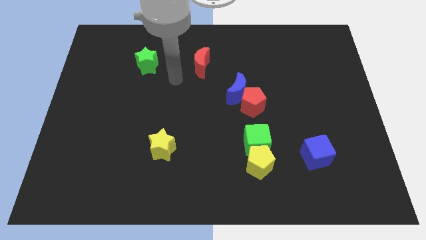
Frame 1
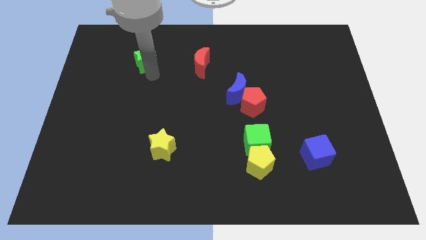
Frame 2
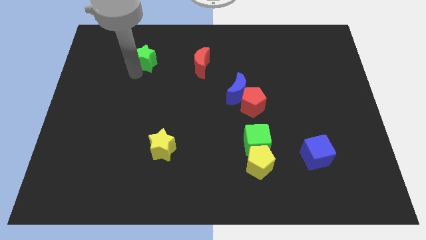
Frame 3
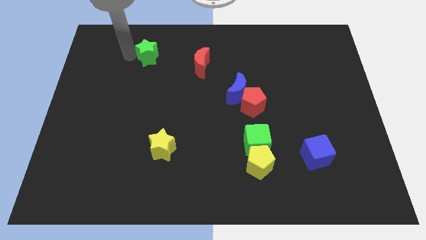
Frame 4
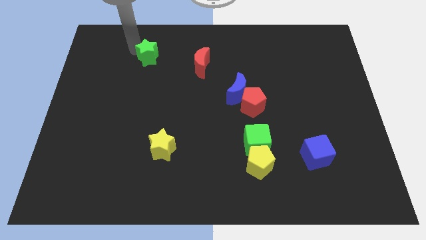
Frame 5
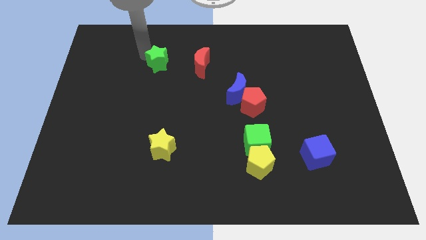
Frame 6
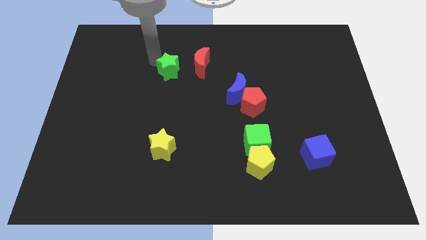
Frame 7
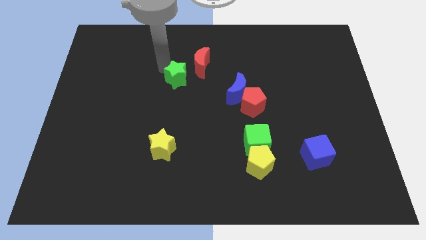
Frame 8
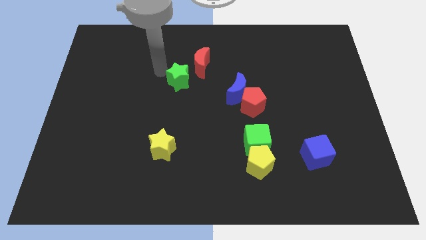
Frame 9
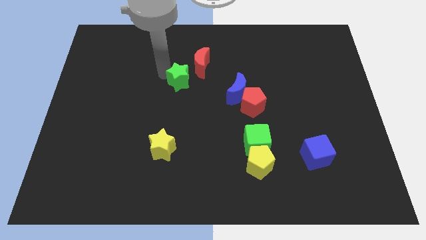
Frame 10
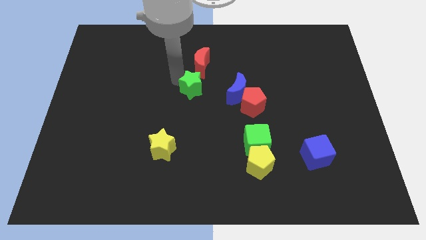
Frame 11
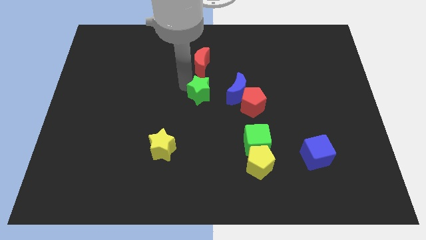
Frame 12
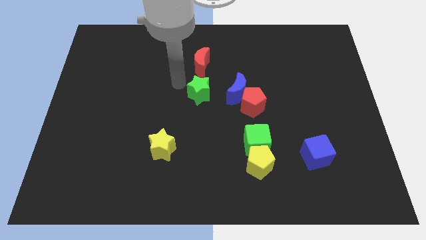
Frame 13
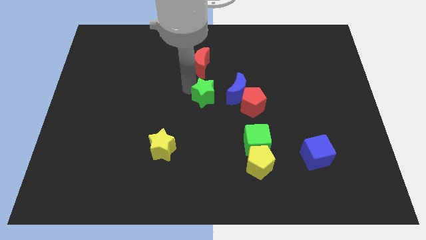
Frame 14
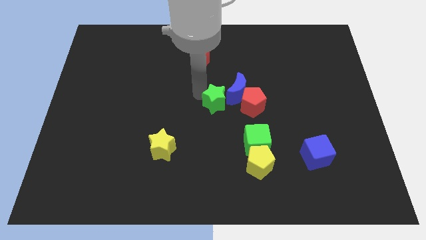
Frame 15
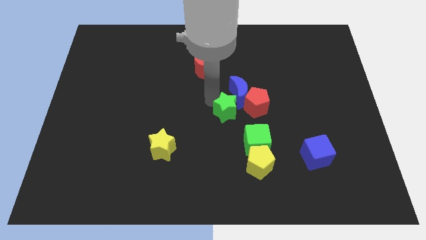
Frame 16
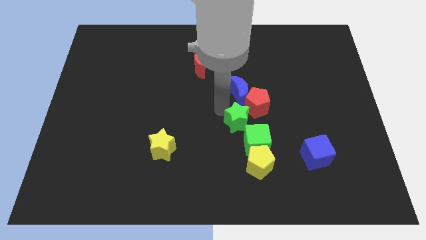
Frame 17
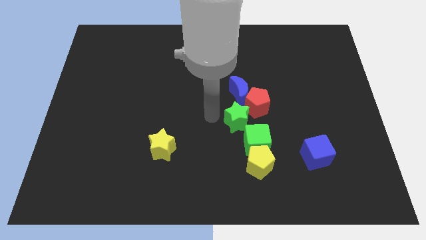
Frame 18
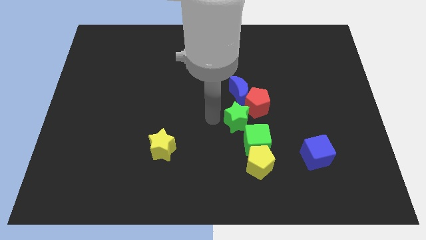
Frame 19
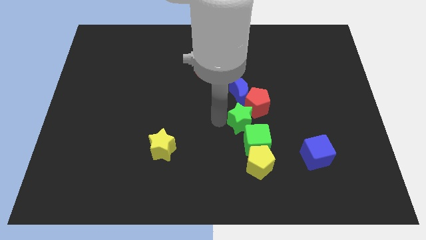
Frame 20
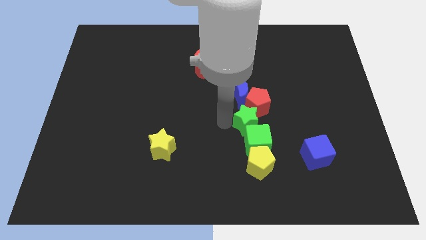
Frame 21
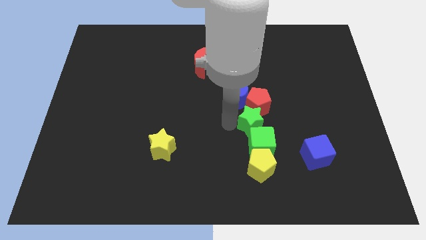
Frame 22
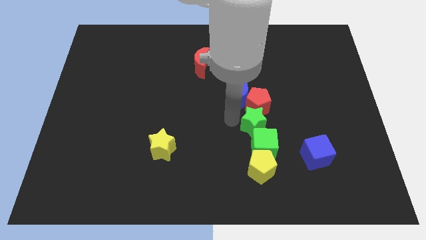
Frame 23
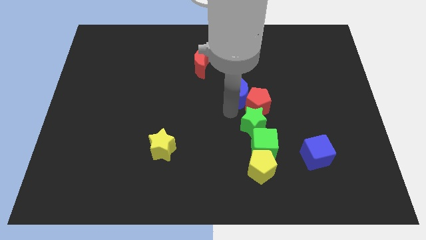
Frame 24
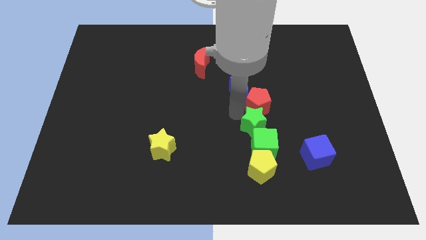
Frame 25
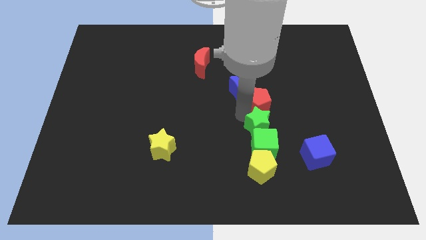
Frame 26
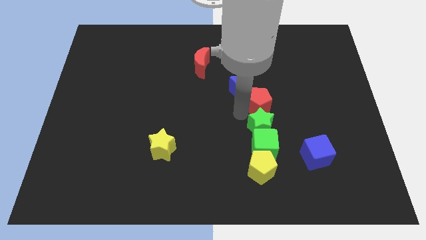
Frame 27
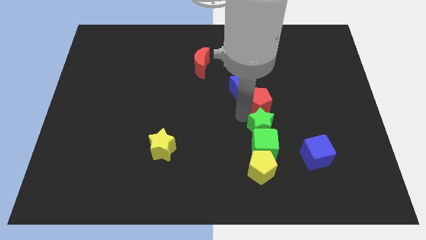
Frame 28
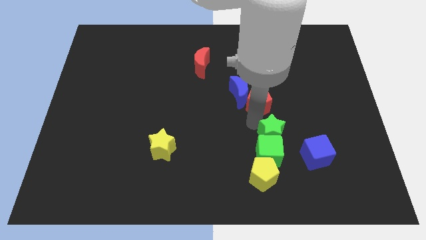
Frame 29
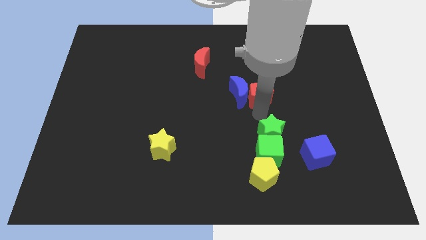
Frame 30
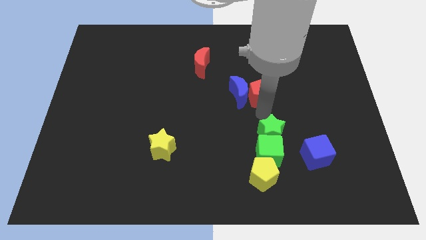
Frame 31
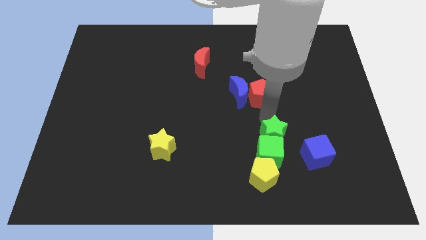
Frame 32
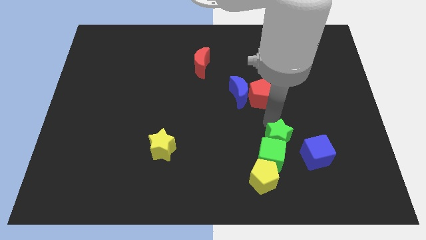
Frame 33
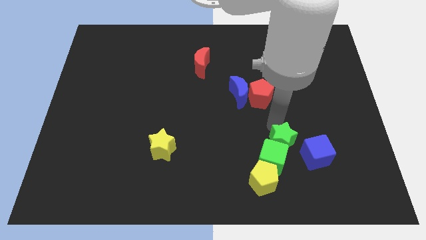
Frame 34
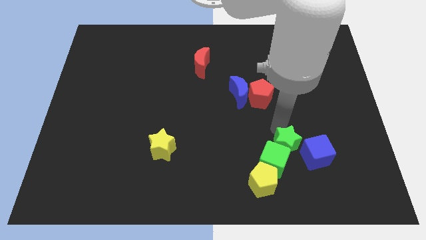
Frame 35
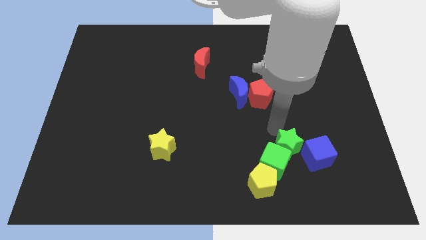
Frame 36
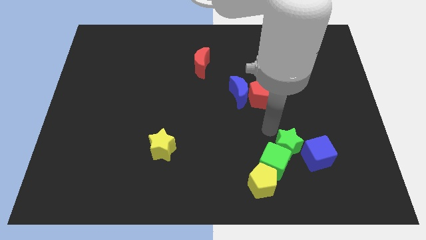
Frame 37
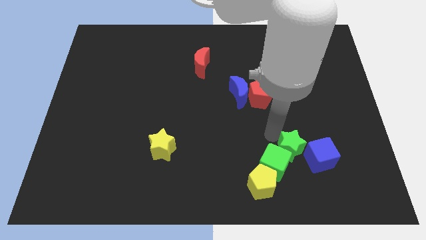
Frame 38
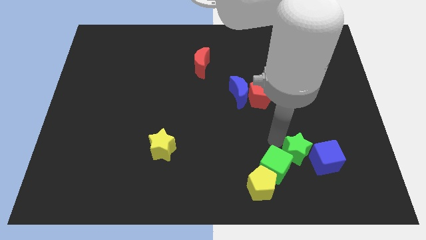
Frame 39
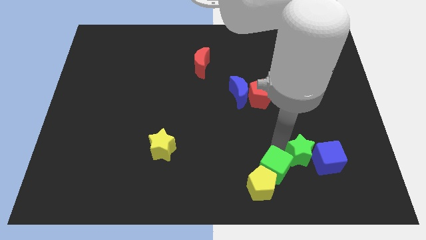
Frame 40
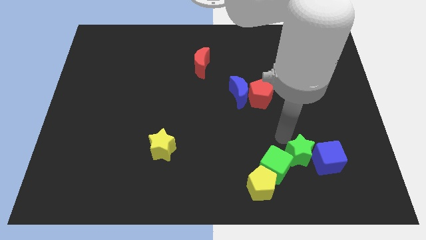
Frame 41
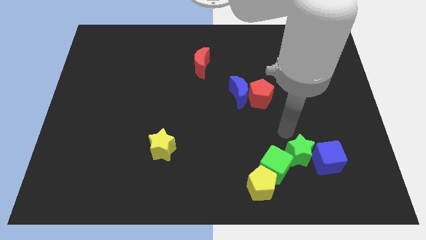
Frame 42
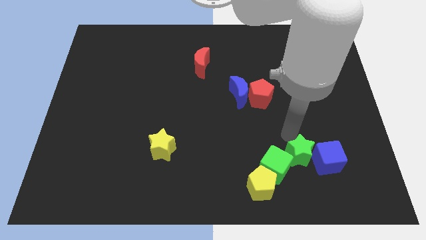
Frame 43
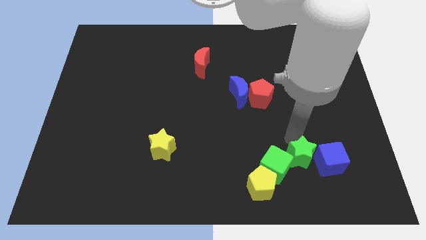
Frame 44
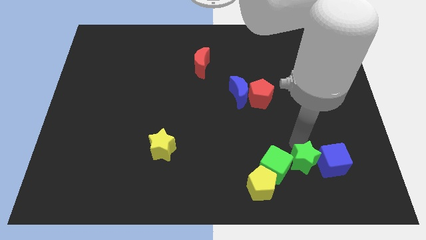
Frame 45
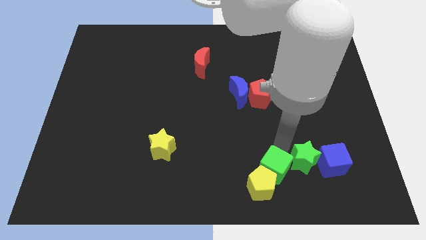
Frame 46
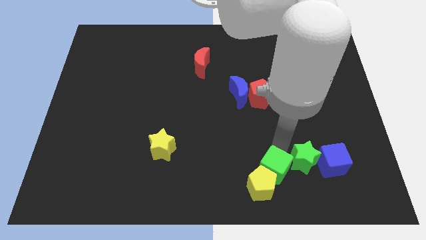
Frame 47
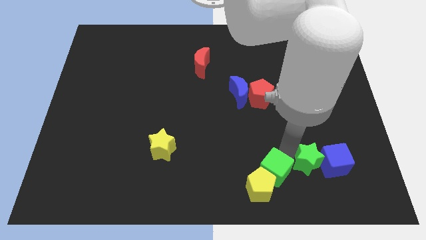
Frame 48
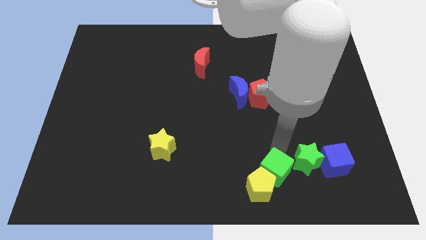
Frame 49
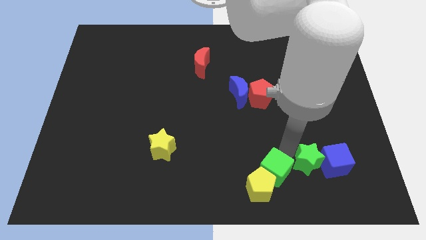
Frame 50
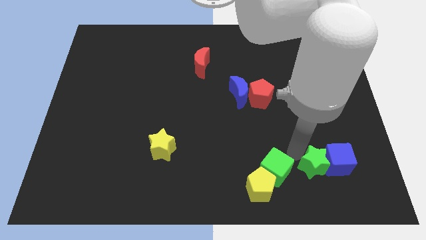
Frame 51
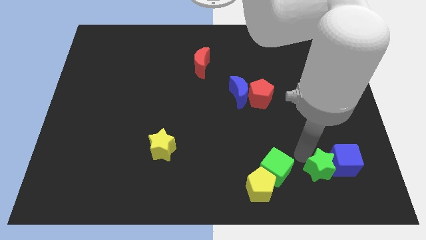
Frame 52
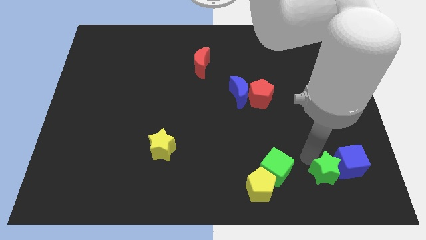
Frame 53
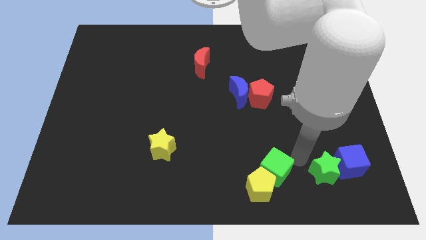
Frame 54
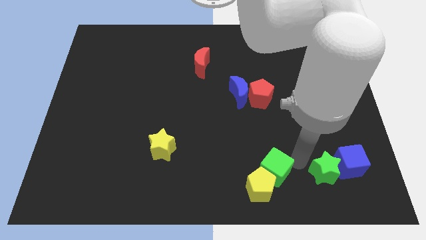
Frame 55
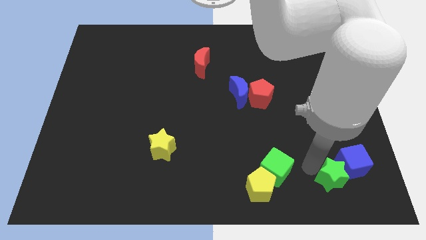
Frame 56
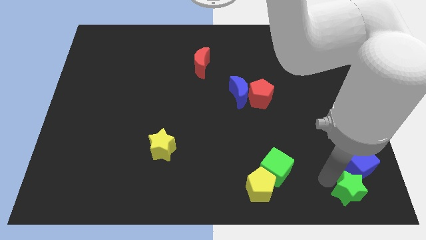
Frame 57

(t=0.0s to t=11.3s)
push the green star to the bottom right corner

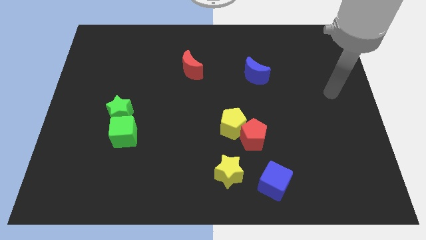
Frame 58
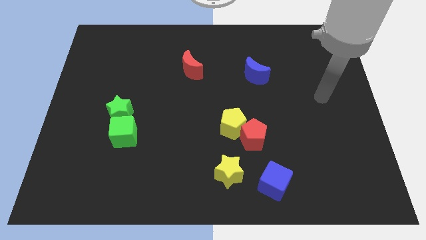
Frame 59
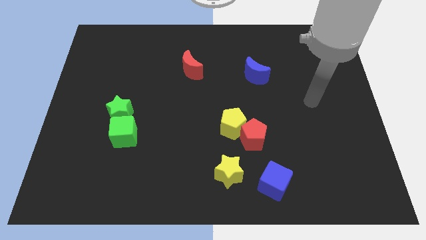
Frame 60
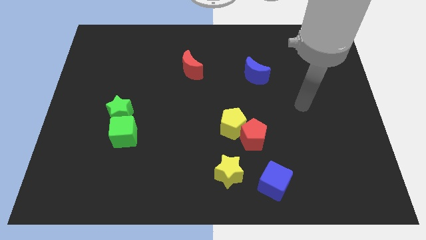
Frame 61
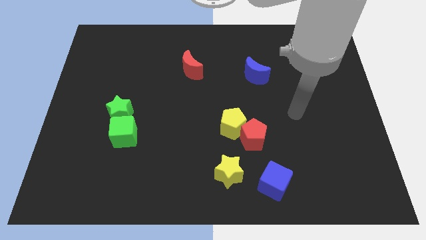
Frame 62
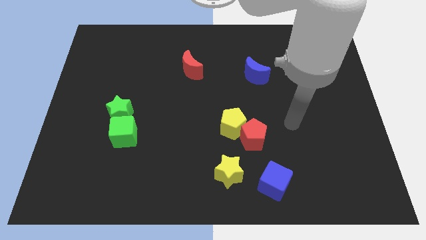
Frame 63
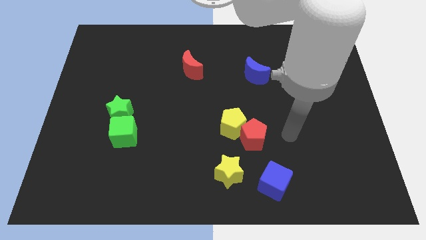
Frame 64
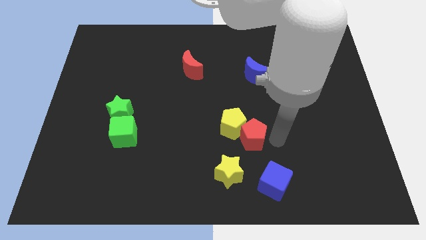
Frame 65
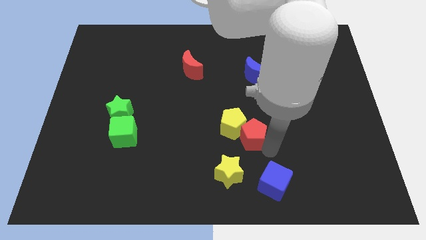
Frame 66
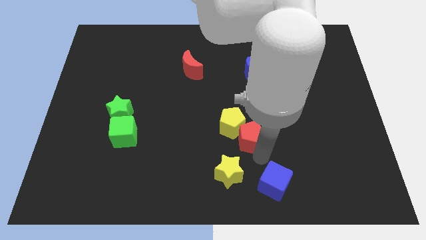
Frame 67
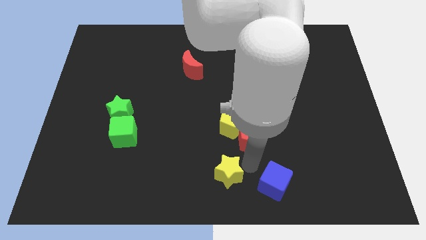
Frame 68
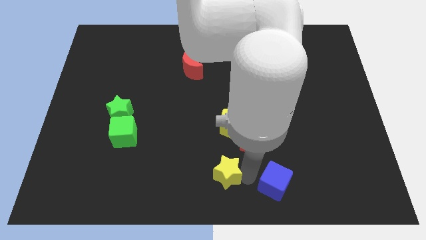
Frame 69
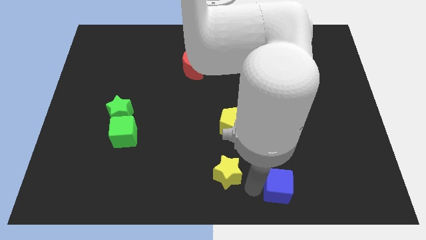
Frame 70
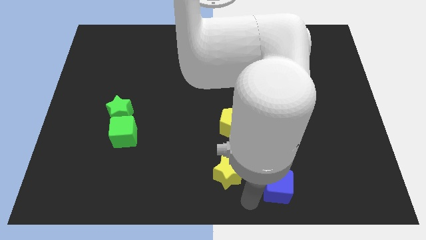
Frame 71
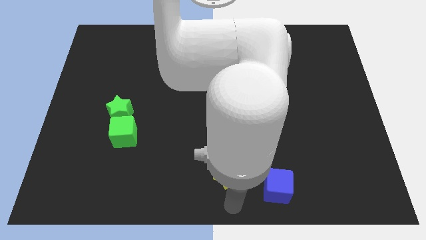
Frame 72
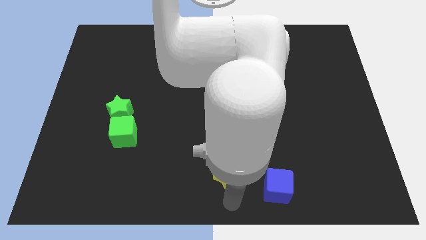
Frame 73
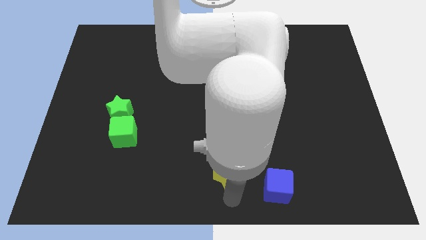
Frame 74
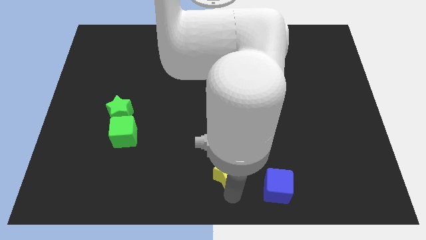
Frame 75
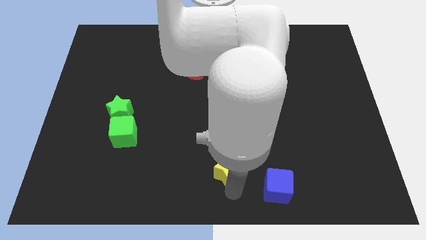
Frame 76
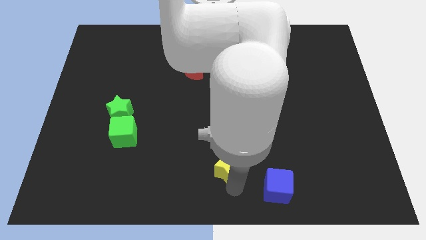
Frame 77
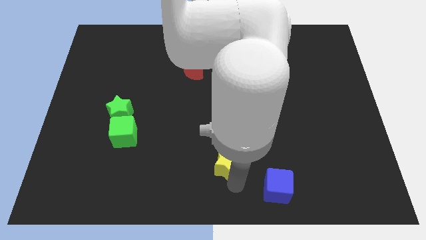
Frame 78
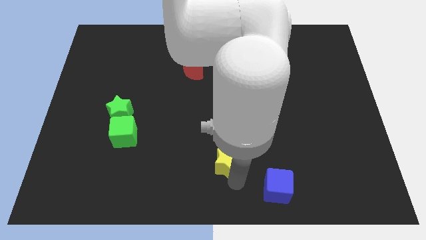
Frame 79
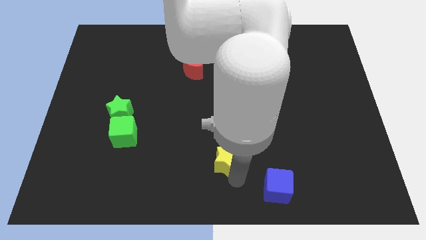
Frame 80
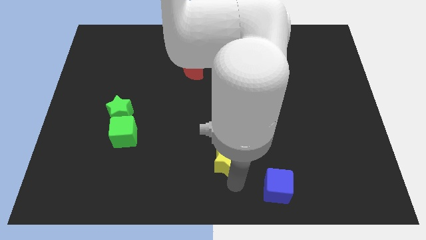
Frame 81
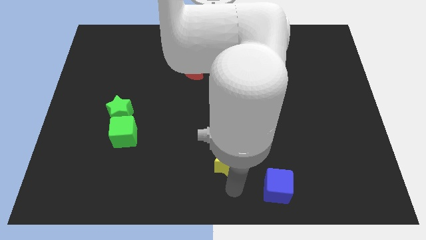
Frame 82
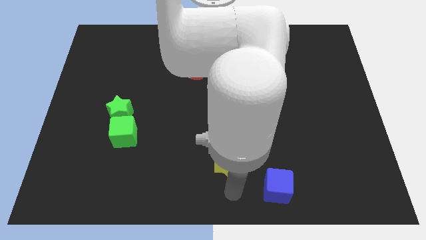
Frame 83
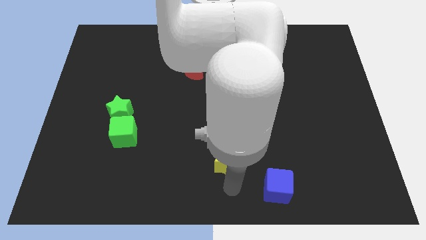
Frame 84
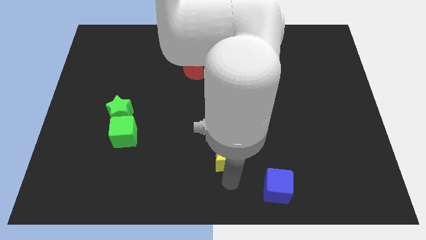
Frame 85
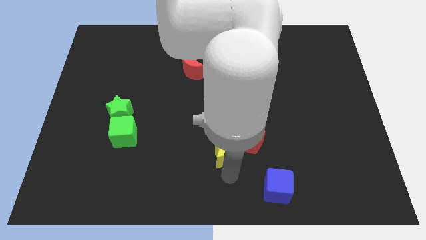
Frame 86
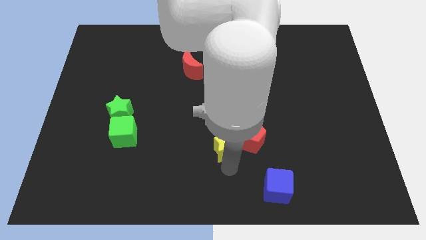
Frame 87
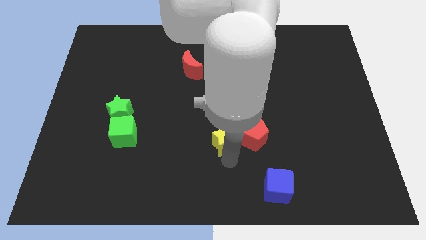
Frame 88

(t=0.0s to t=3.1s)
move the yellow star to the center of the board
